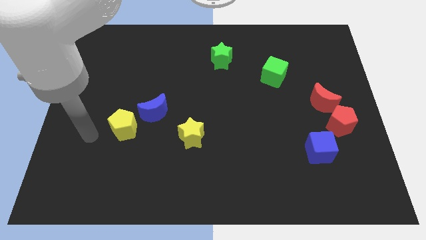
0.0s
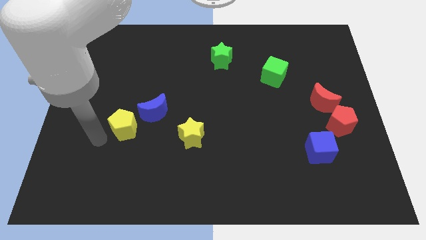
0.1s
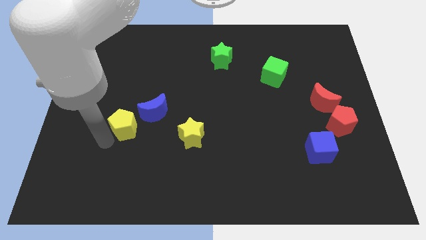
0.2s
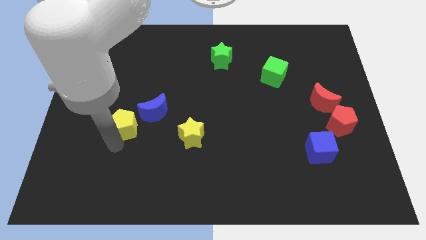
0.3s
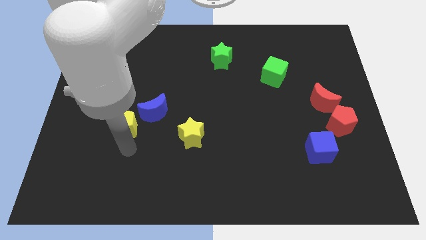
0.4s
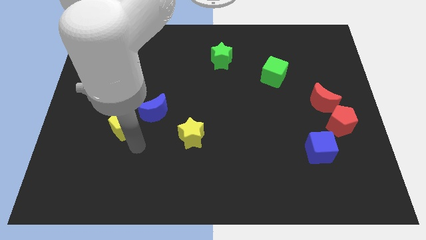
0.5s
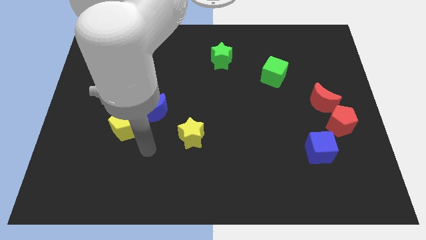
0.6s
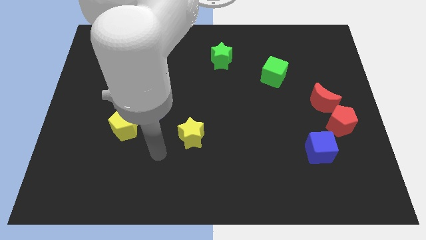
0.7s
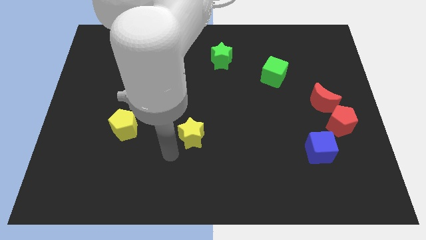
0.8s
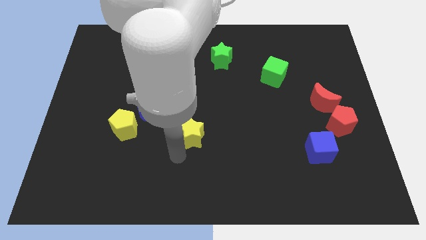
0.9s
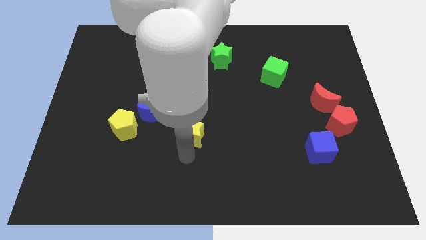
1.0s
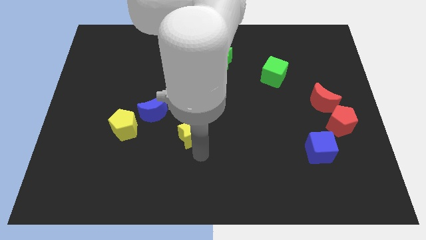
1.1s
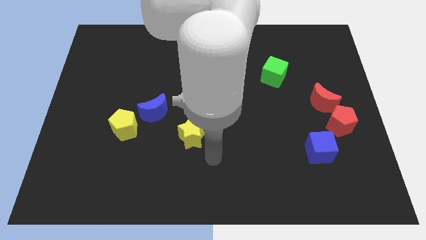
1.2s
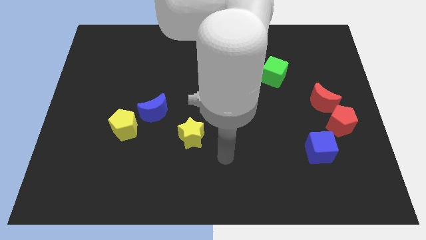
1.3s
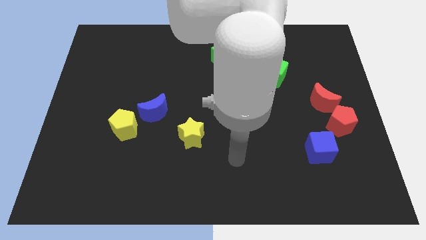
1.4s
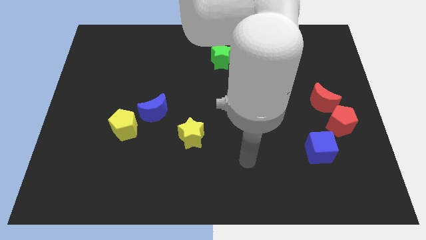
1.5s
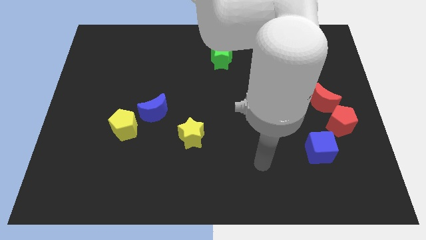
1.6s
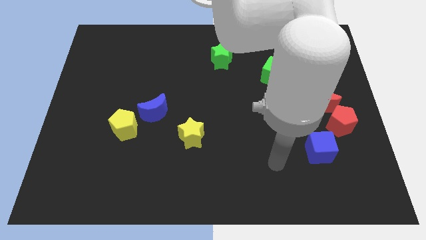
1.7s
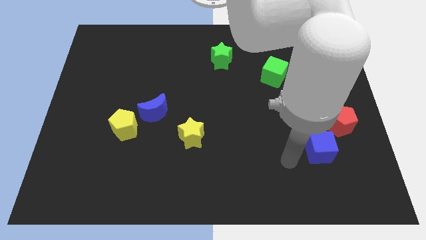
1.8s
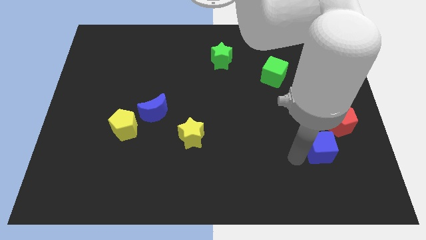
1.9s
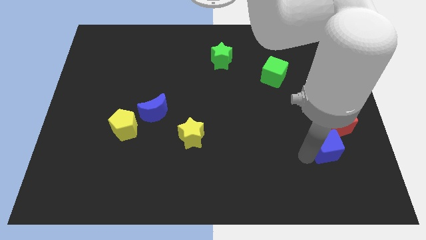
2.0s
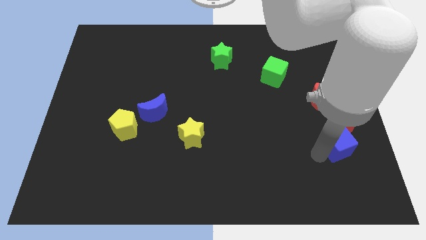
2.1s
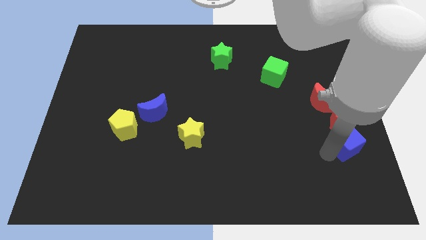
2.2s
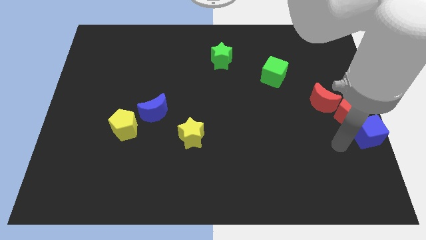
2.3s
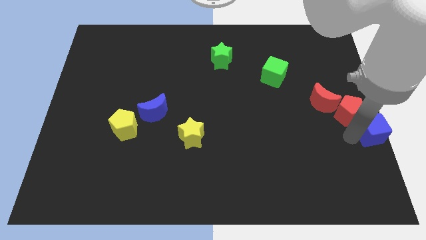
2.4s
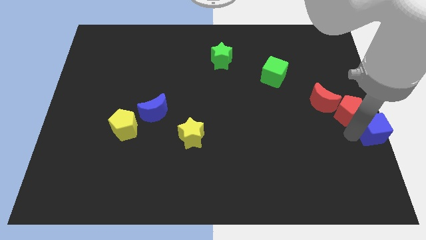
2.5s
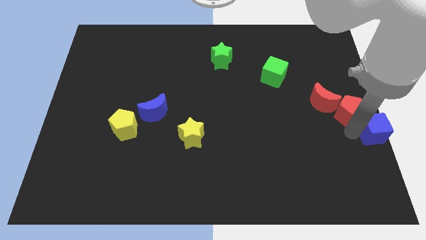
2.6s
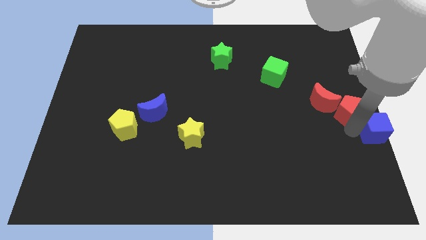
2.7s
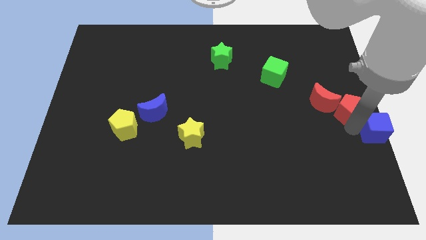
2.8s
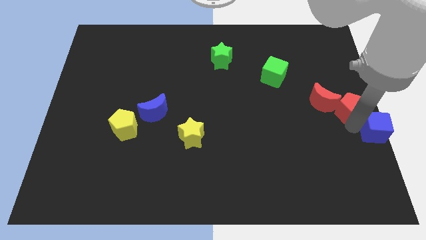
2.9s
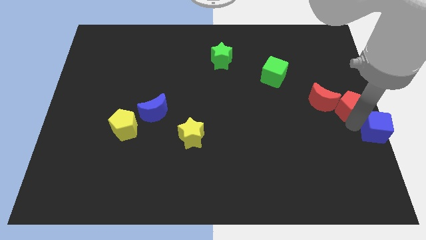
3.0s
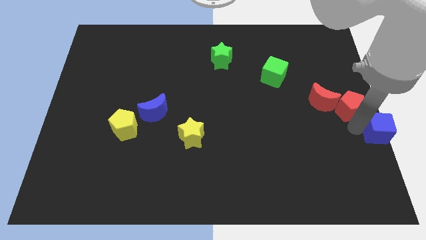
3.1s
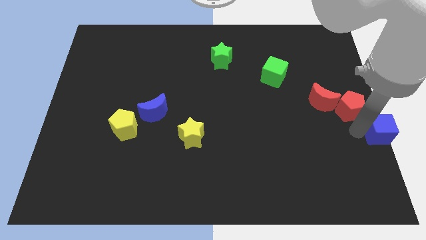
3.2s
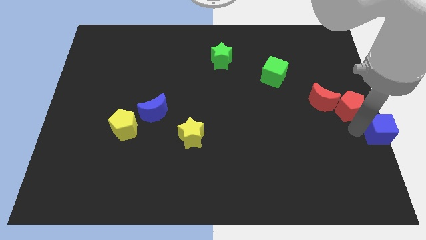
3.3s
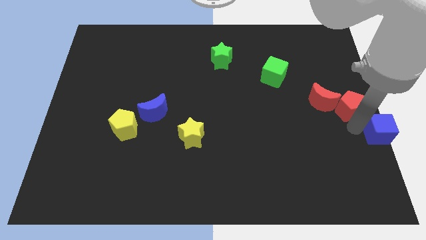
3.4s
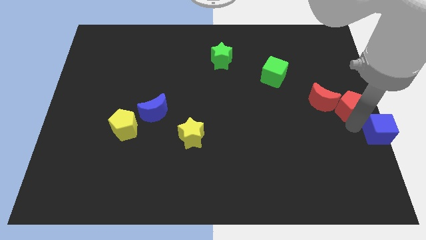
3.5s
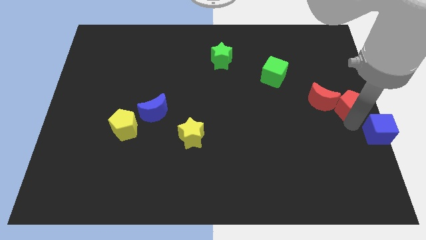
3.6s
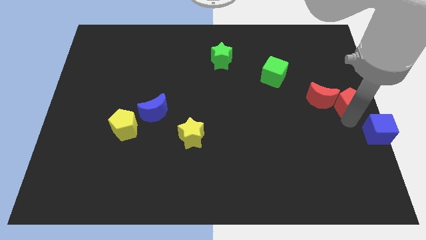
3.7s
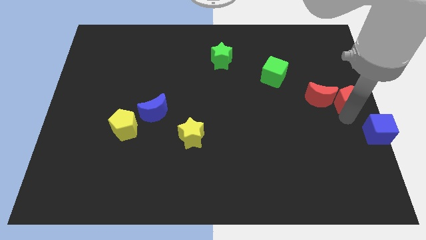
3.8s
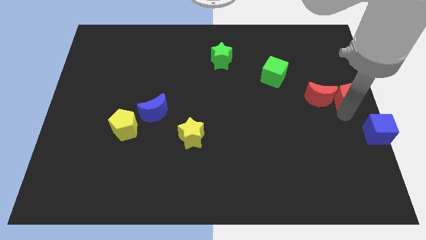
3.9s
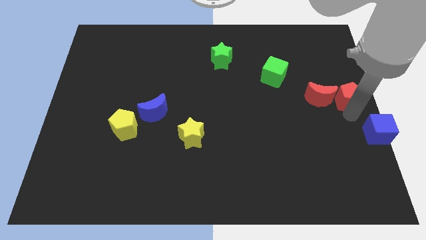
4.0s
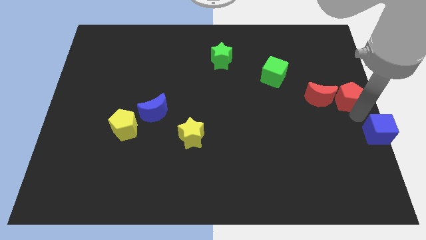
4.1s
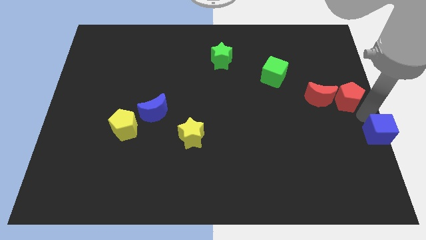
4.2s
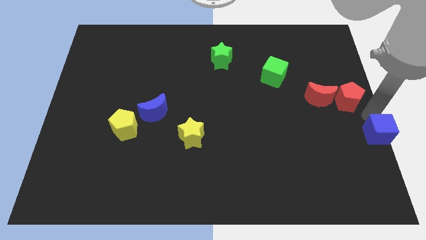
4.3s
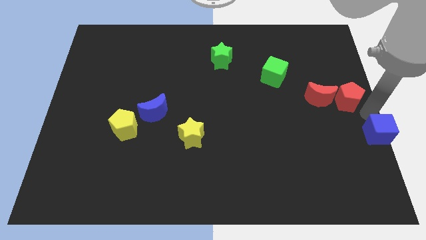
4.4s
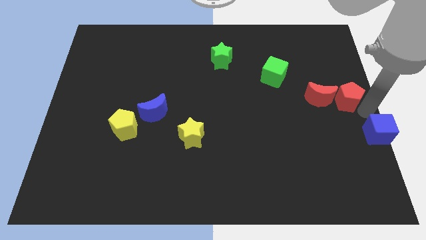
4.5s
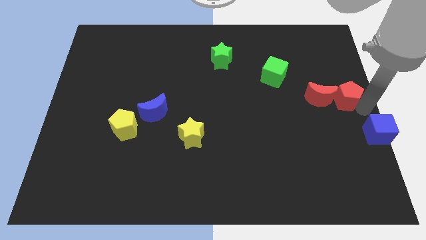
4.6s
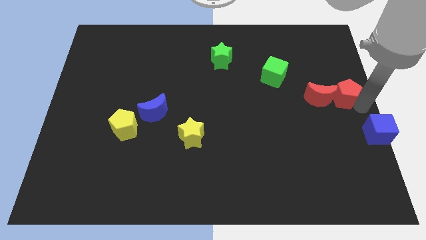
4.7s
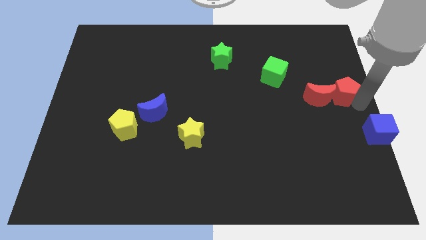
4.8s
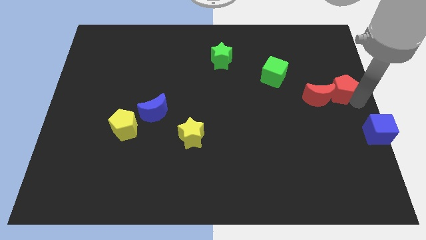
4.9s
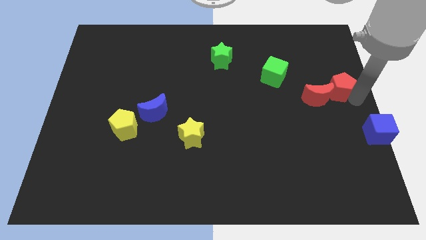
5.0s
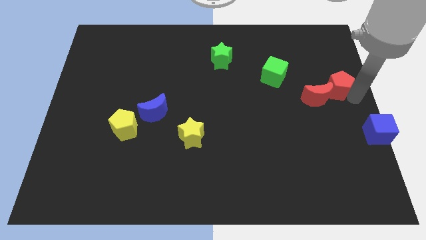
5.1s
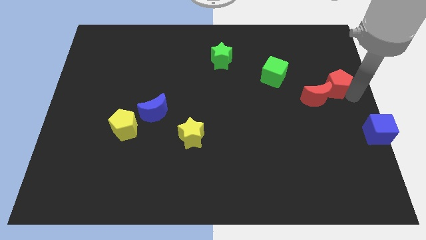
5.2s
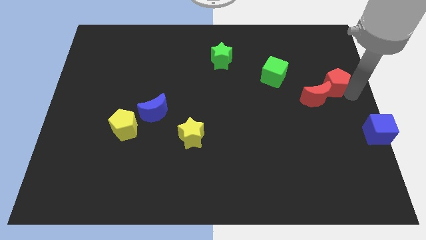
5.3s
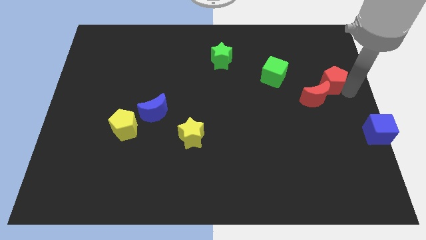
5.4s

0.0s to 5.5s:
slide the red pentagon to the top of the red moon

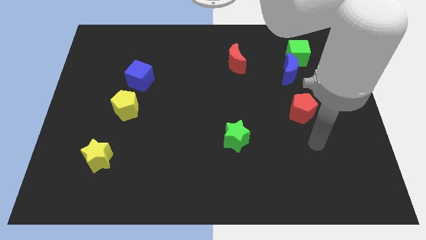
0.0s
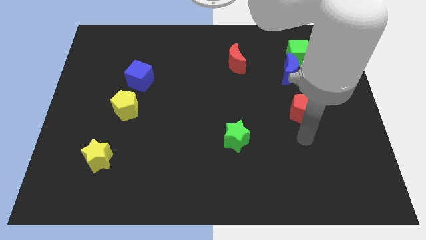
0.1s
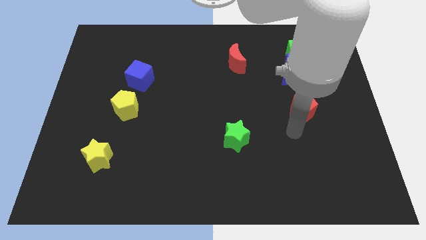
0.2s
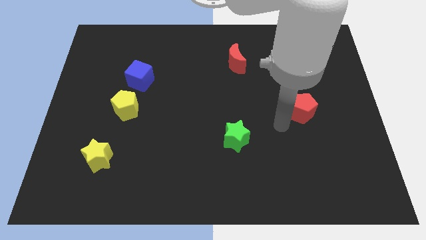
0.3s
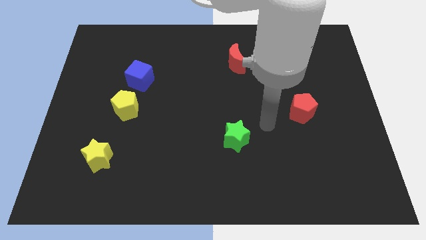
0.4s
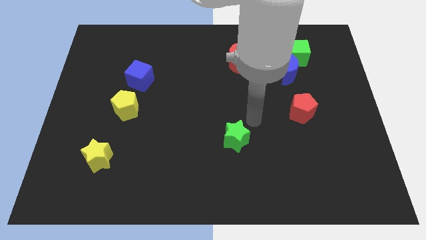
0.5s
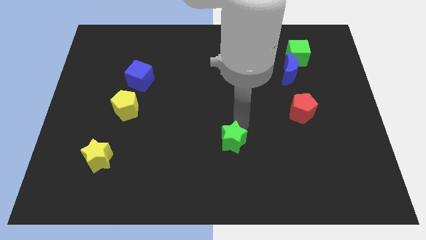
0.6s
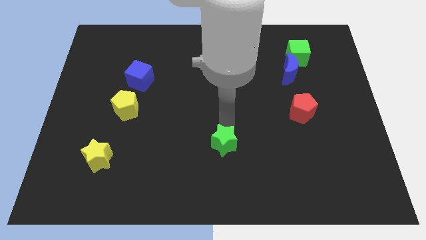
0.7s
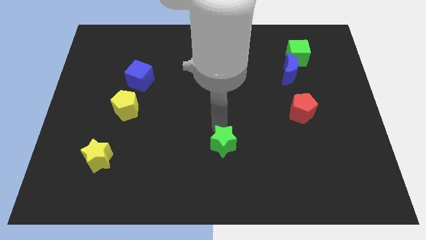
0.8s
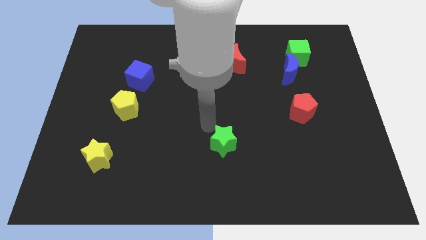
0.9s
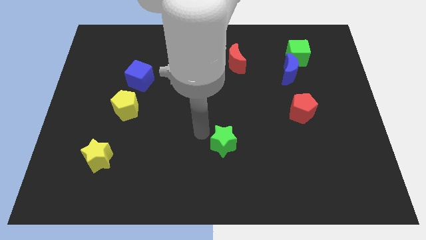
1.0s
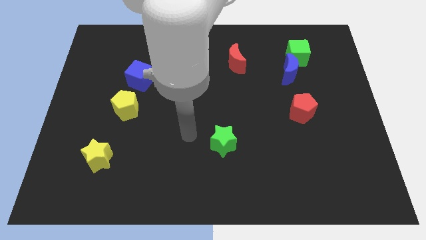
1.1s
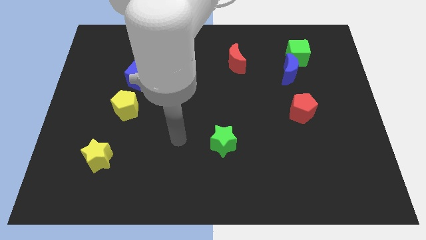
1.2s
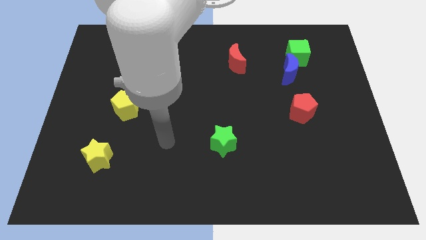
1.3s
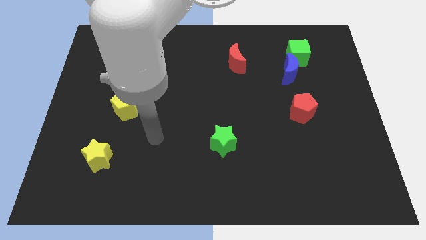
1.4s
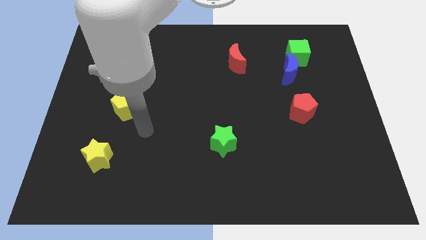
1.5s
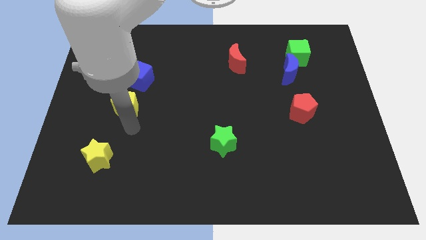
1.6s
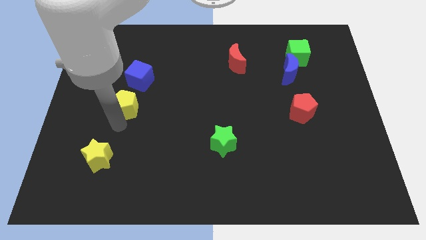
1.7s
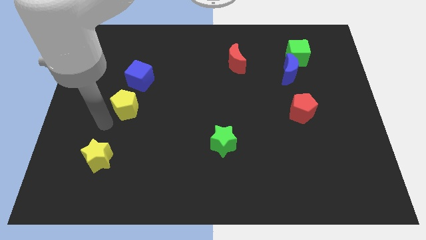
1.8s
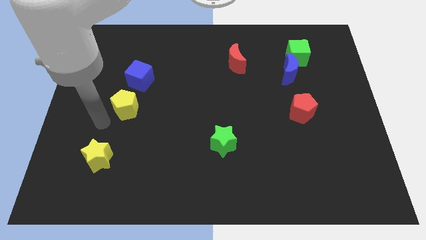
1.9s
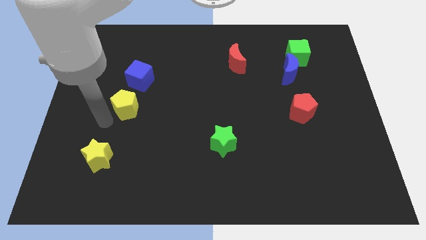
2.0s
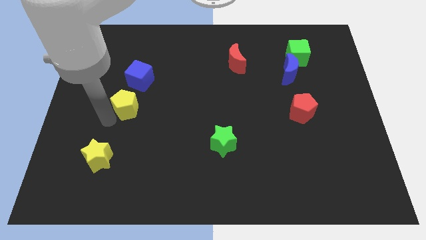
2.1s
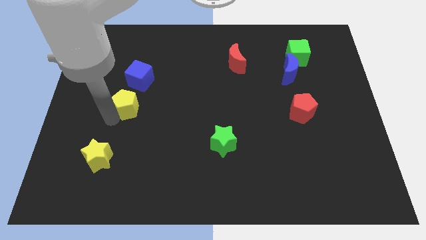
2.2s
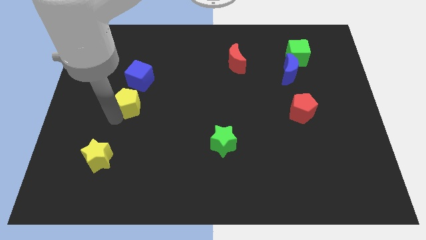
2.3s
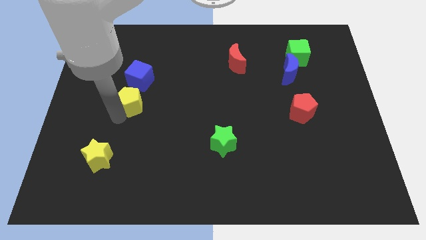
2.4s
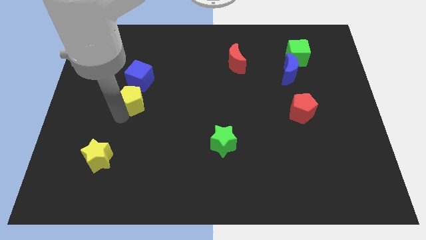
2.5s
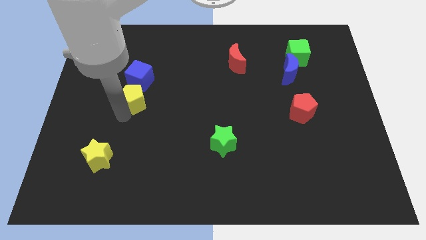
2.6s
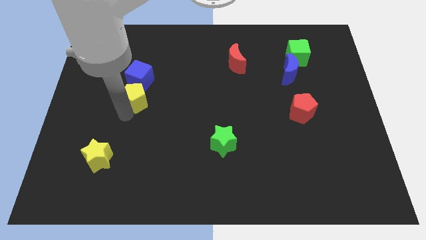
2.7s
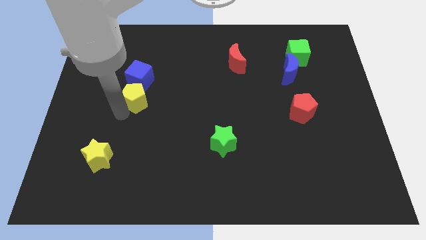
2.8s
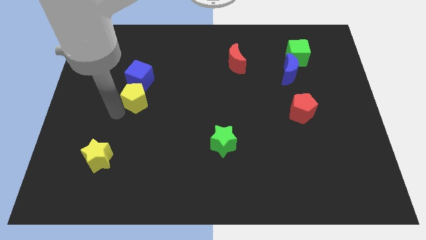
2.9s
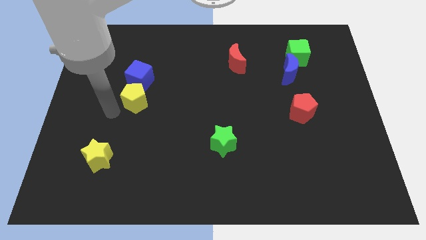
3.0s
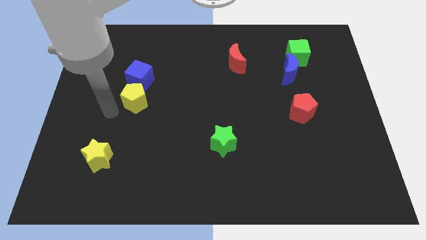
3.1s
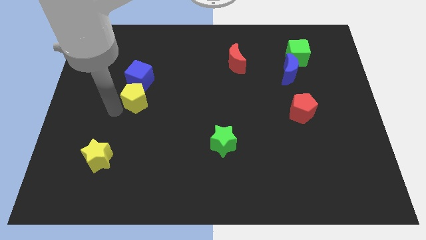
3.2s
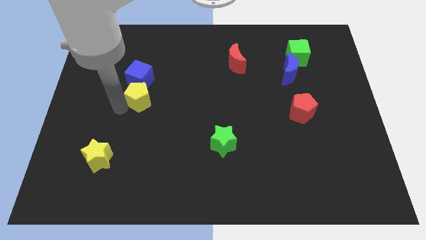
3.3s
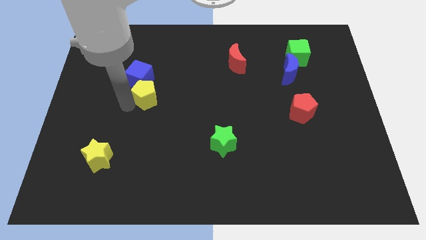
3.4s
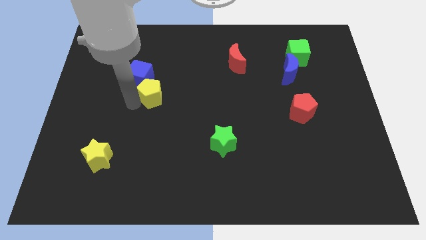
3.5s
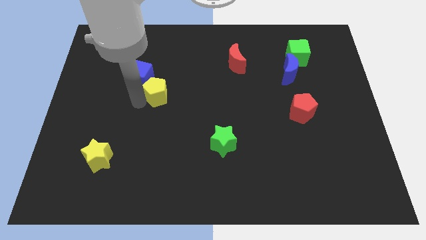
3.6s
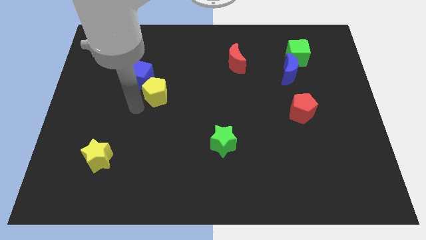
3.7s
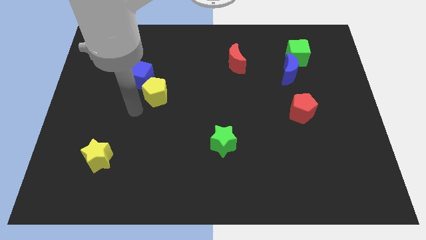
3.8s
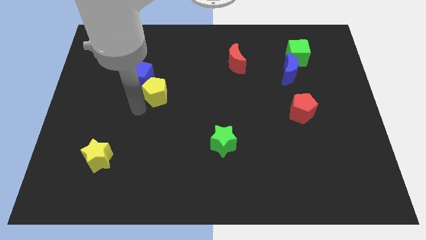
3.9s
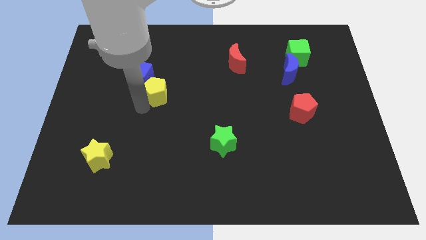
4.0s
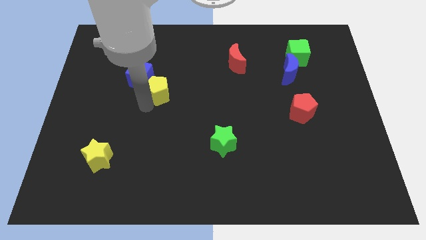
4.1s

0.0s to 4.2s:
move the yellow pentagon to the right of the blue cube
